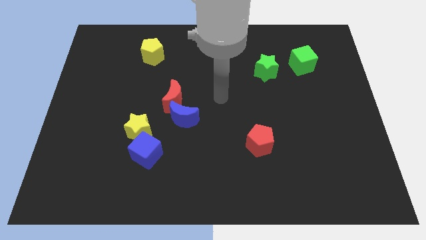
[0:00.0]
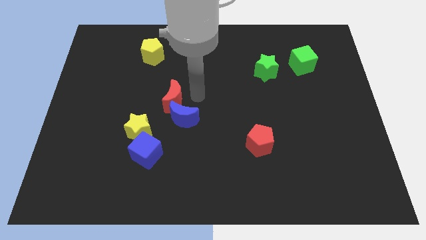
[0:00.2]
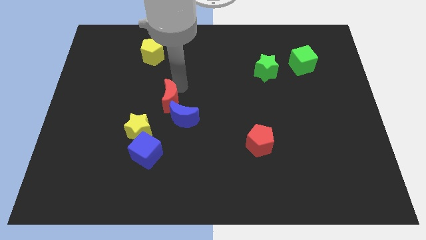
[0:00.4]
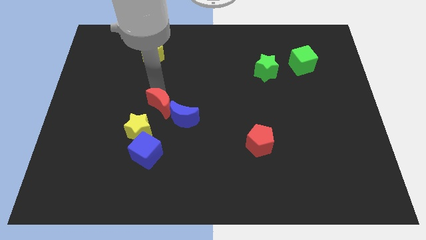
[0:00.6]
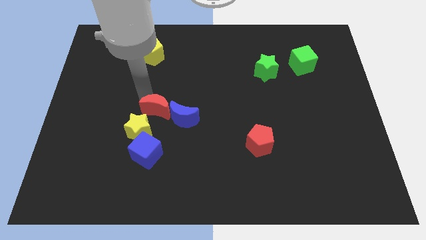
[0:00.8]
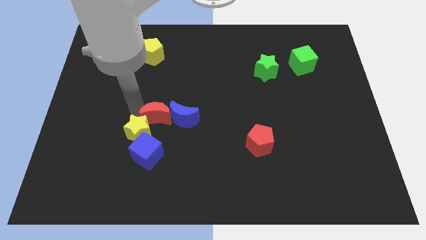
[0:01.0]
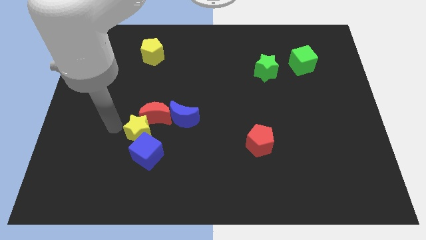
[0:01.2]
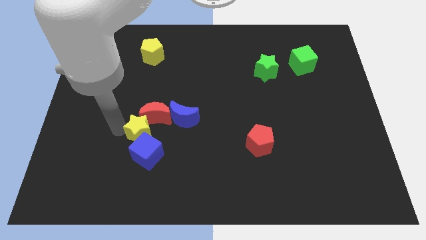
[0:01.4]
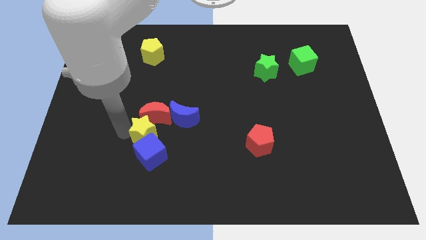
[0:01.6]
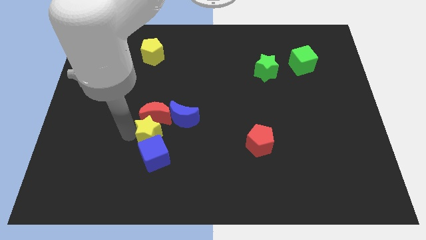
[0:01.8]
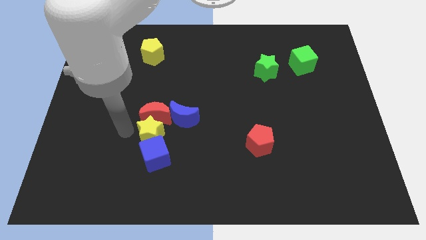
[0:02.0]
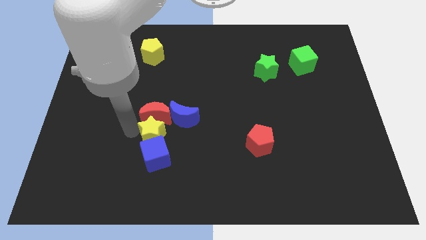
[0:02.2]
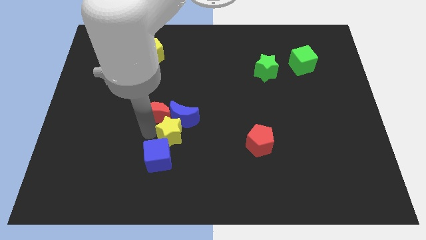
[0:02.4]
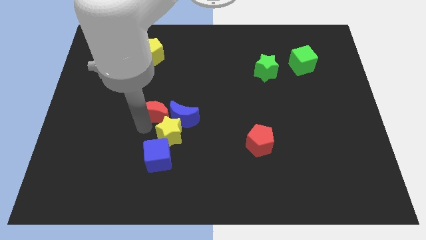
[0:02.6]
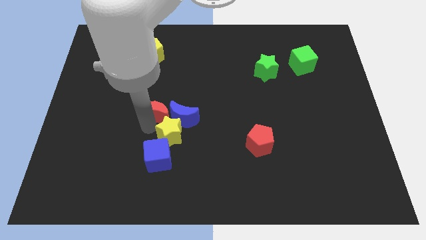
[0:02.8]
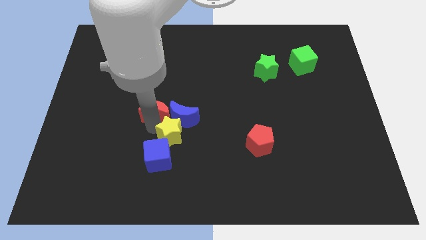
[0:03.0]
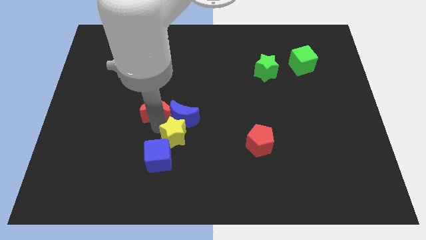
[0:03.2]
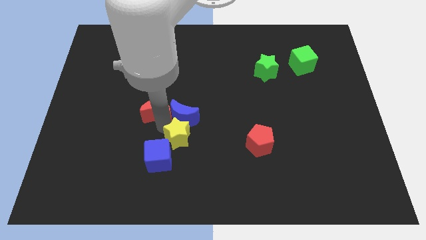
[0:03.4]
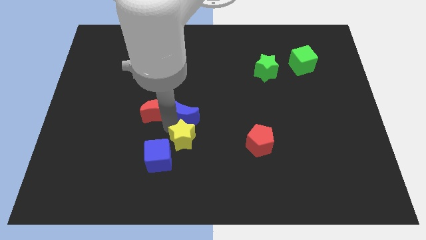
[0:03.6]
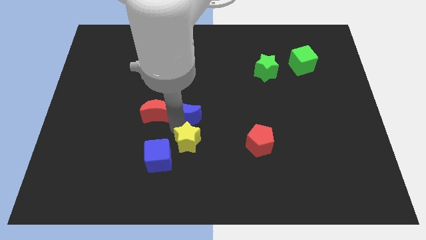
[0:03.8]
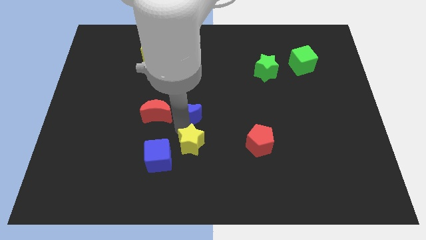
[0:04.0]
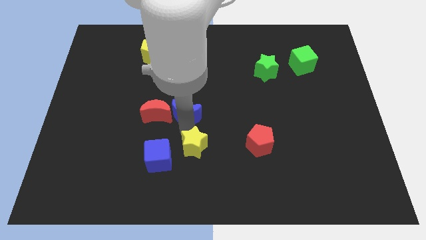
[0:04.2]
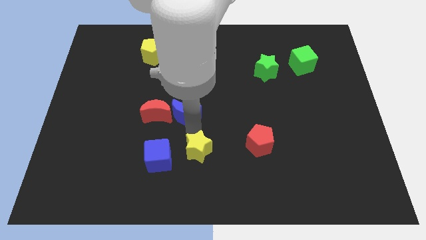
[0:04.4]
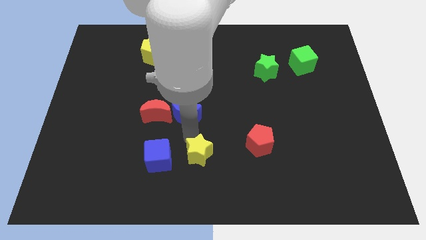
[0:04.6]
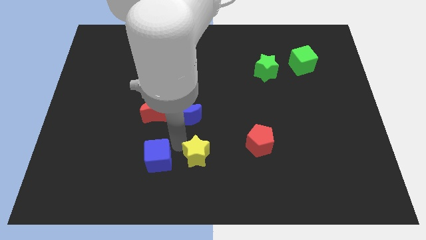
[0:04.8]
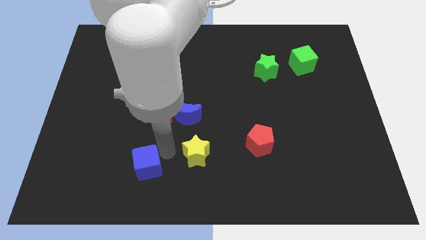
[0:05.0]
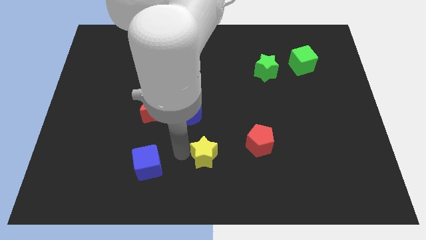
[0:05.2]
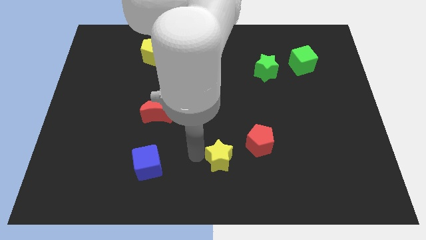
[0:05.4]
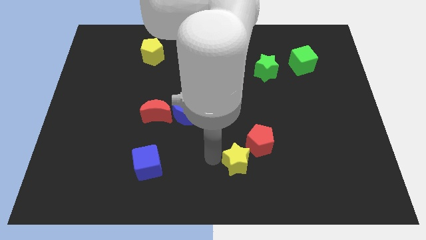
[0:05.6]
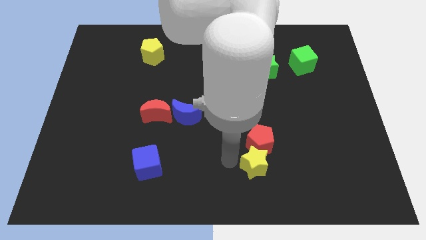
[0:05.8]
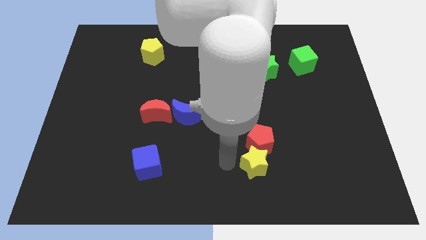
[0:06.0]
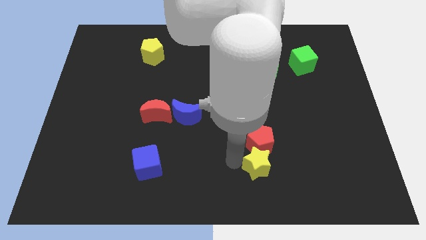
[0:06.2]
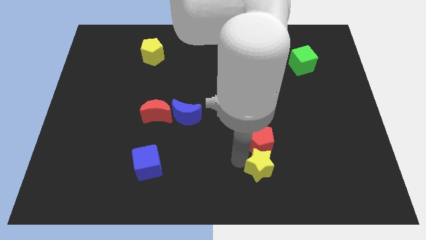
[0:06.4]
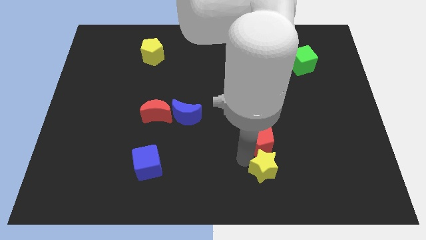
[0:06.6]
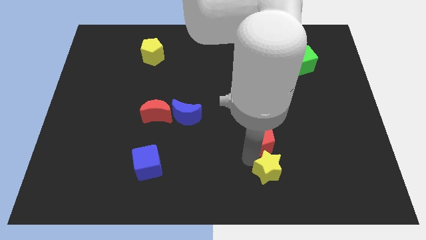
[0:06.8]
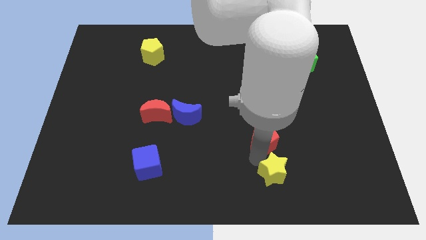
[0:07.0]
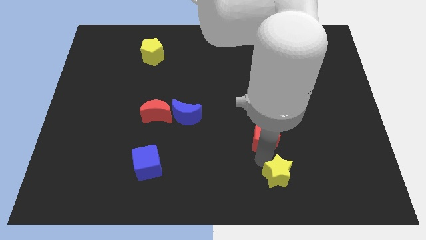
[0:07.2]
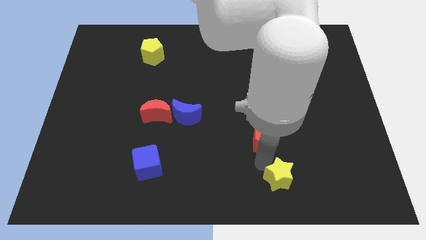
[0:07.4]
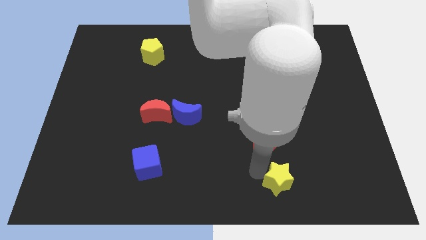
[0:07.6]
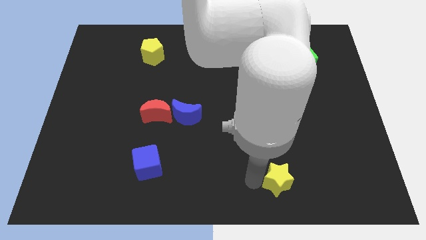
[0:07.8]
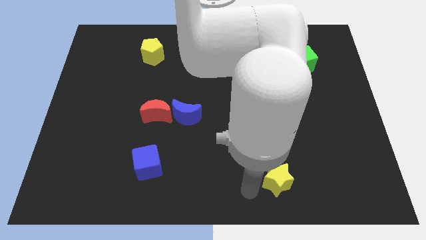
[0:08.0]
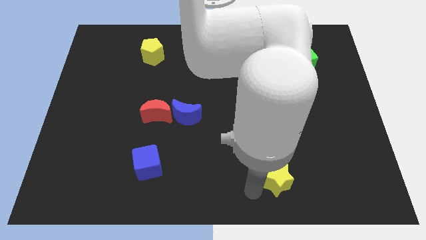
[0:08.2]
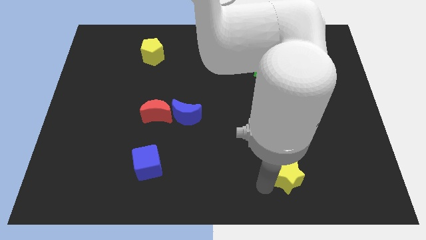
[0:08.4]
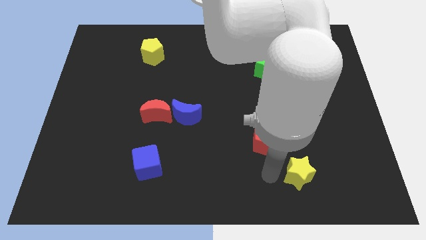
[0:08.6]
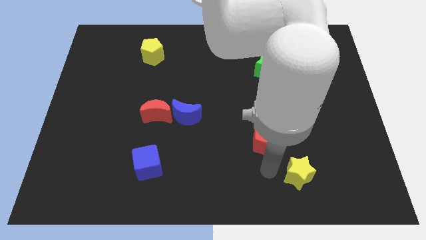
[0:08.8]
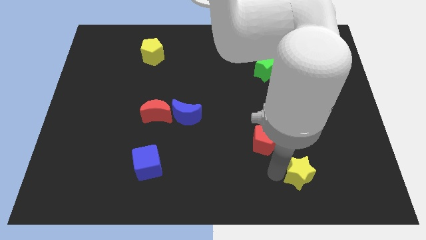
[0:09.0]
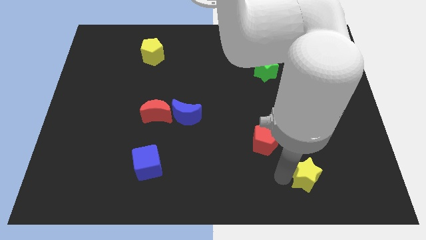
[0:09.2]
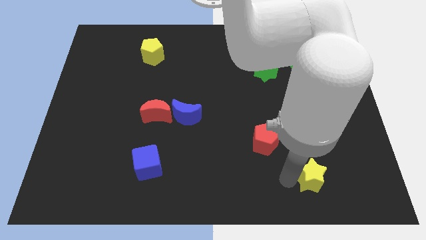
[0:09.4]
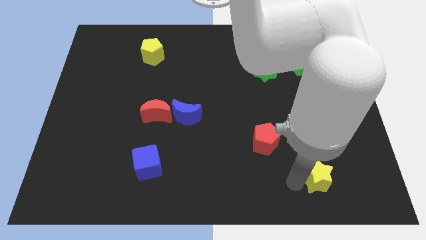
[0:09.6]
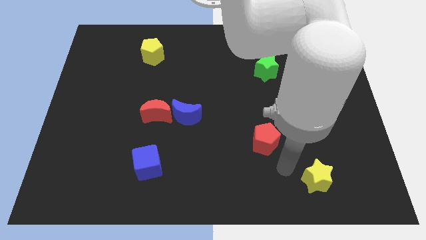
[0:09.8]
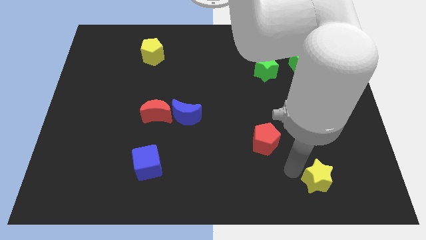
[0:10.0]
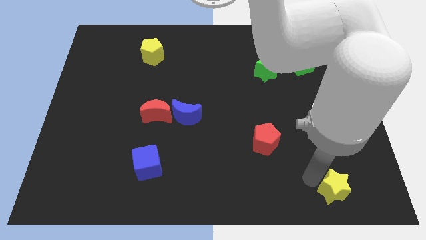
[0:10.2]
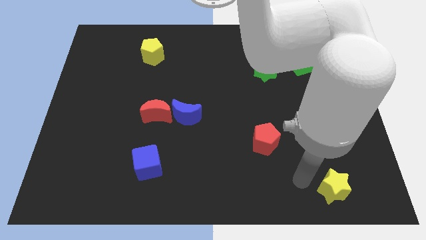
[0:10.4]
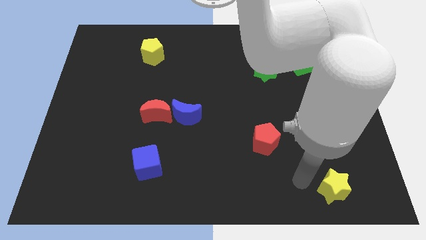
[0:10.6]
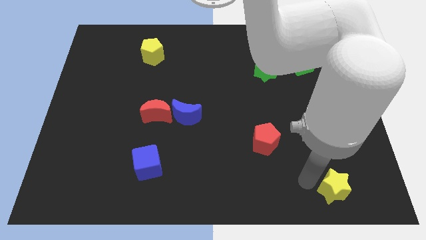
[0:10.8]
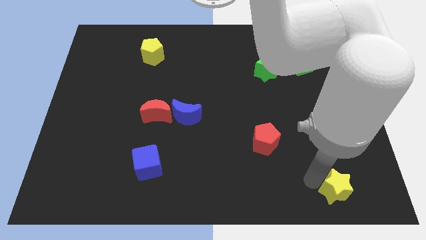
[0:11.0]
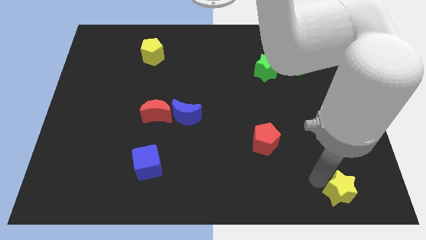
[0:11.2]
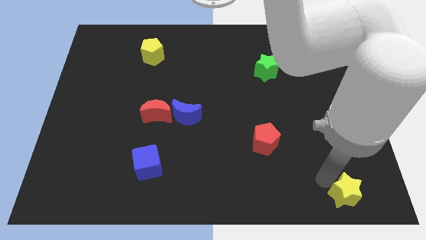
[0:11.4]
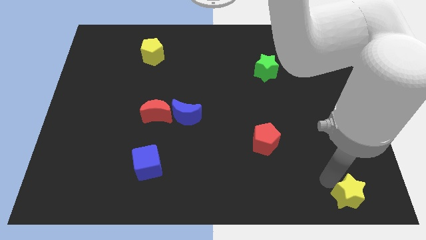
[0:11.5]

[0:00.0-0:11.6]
move the yellow star to the bottom right of the board

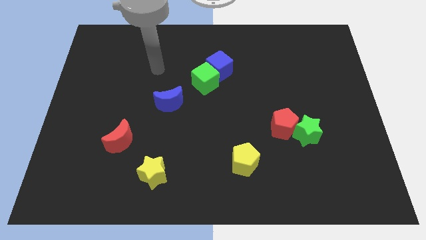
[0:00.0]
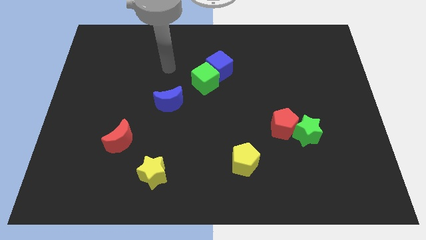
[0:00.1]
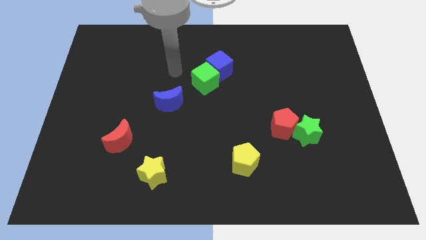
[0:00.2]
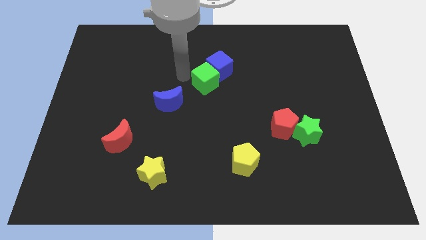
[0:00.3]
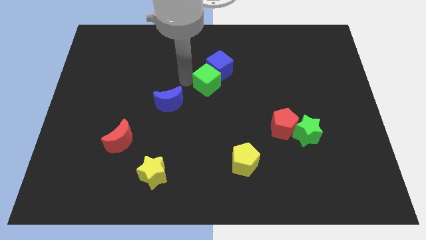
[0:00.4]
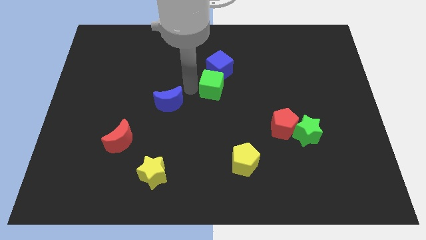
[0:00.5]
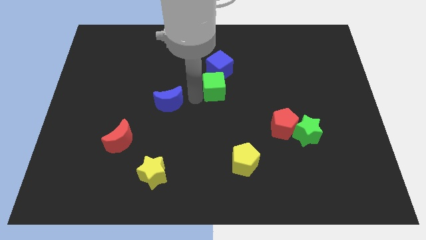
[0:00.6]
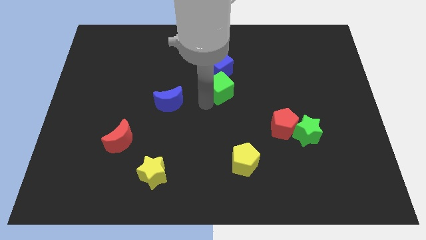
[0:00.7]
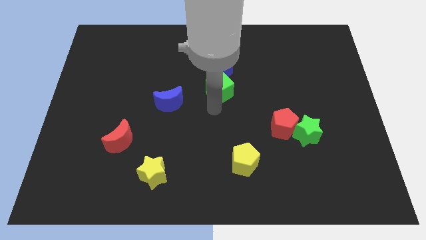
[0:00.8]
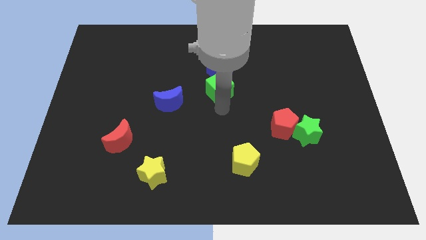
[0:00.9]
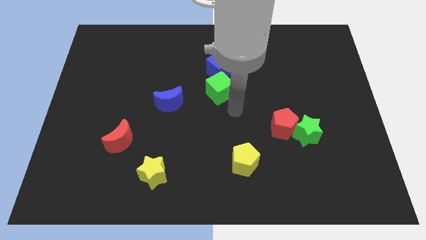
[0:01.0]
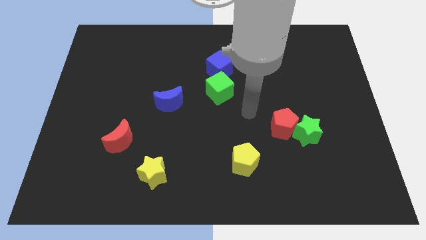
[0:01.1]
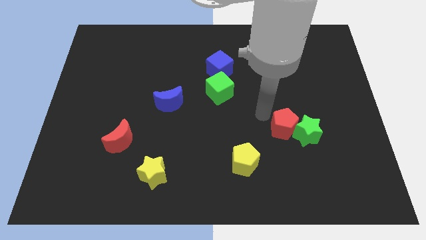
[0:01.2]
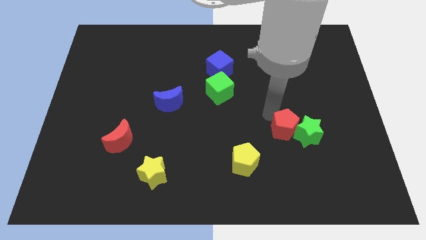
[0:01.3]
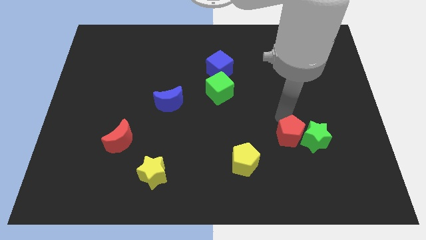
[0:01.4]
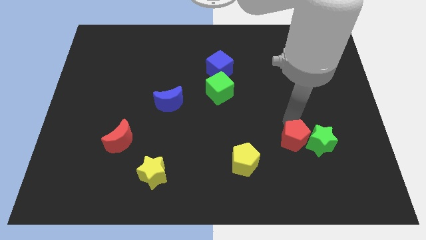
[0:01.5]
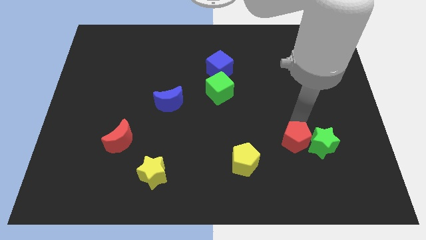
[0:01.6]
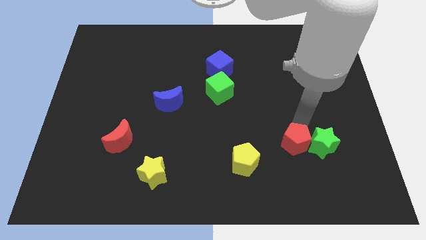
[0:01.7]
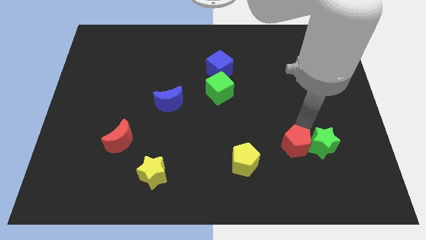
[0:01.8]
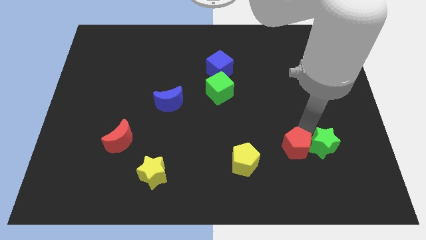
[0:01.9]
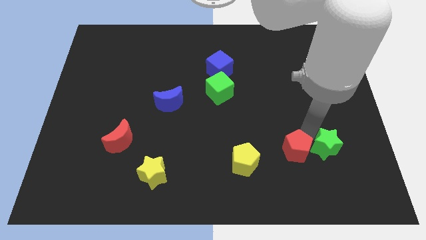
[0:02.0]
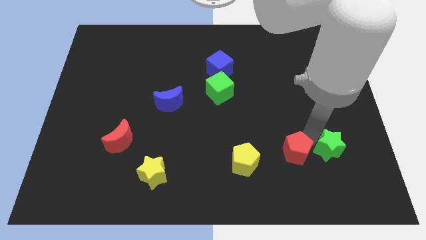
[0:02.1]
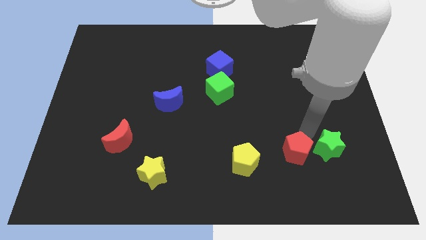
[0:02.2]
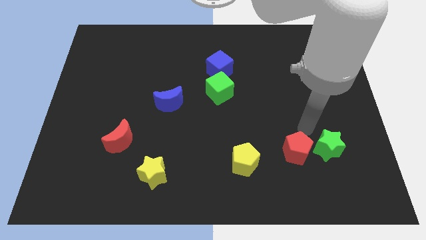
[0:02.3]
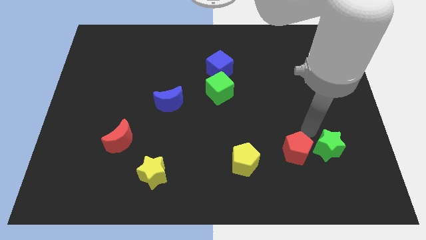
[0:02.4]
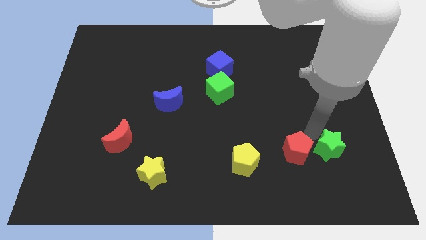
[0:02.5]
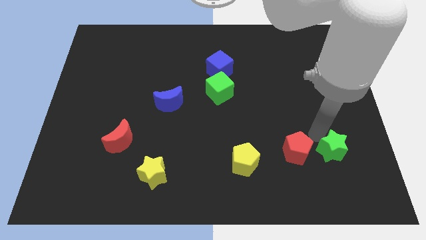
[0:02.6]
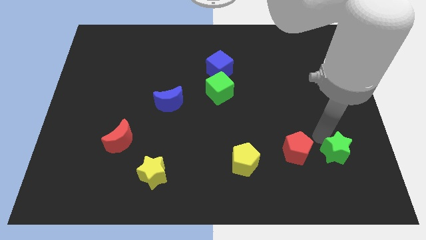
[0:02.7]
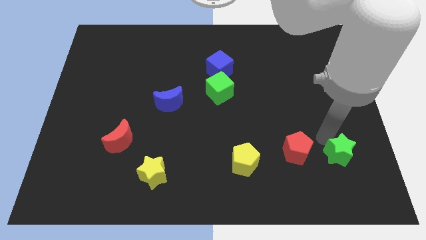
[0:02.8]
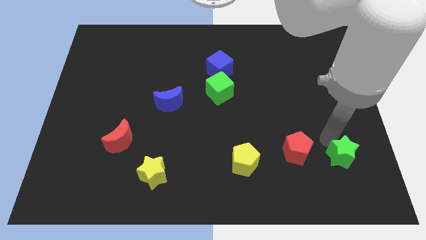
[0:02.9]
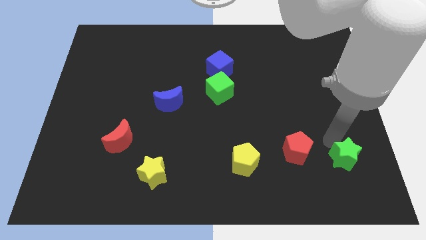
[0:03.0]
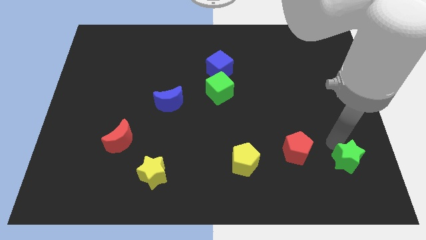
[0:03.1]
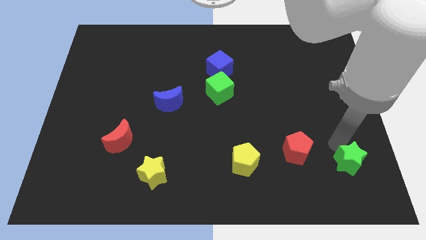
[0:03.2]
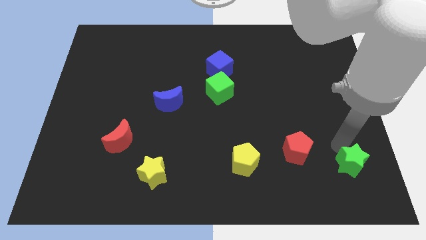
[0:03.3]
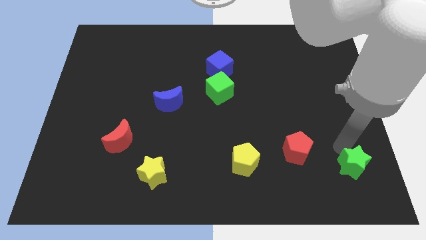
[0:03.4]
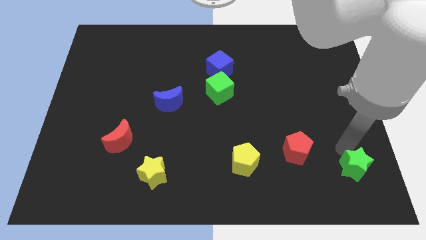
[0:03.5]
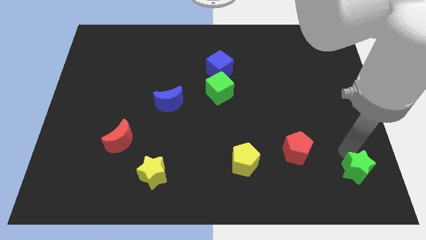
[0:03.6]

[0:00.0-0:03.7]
put the green star to the lower right corner
